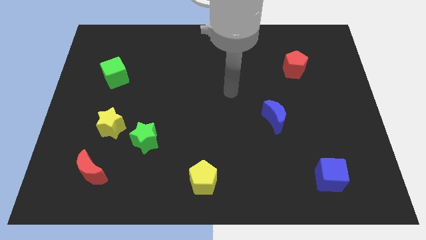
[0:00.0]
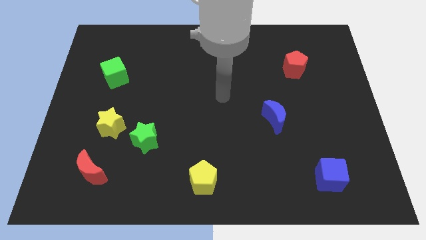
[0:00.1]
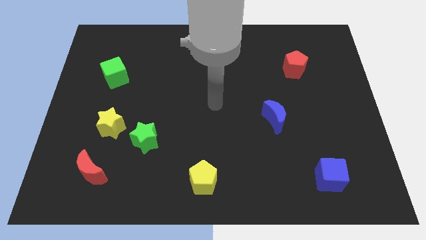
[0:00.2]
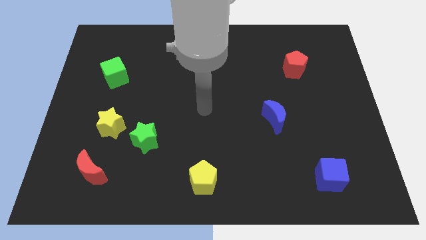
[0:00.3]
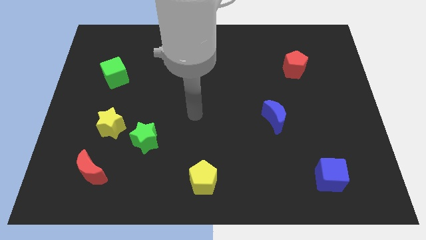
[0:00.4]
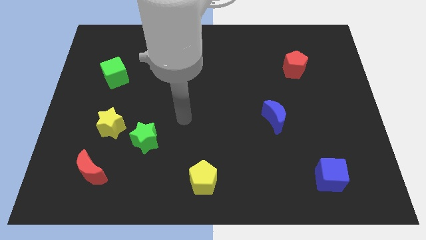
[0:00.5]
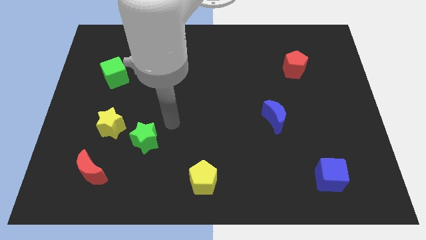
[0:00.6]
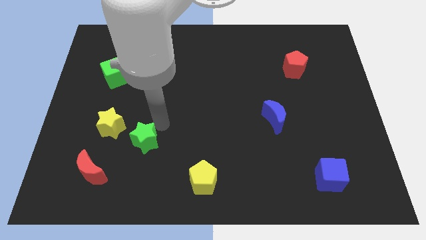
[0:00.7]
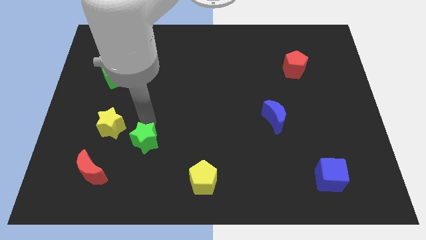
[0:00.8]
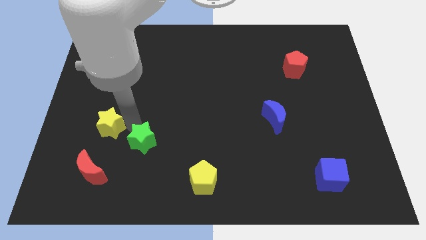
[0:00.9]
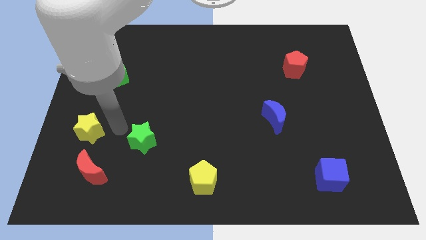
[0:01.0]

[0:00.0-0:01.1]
move the green star away from the yellow star

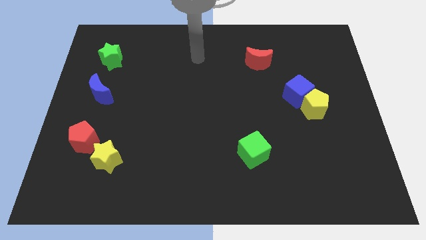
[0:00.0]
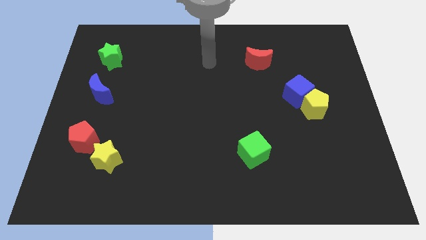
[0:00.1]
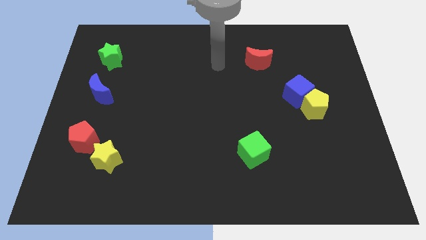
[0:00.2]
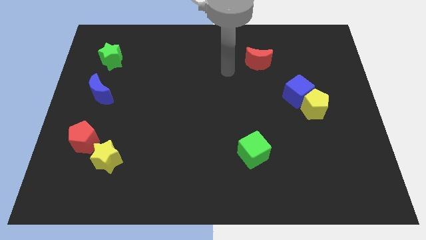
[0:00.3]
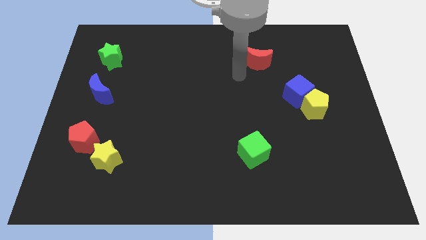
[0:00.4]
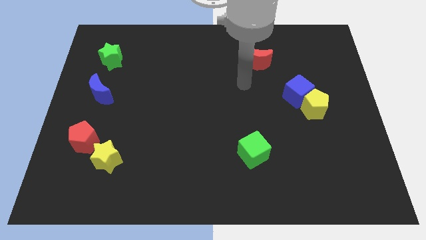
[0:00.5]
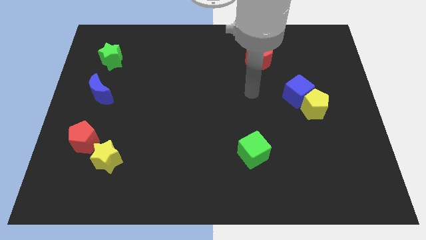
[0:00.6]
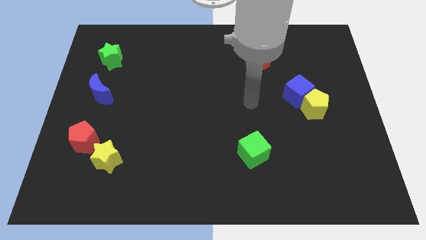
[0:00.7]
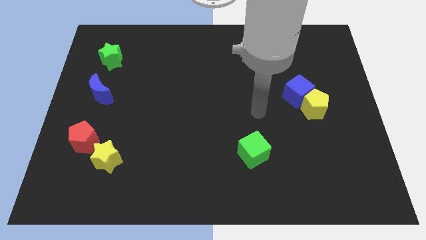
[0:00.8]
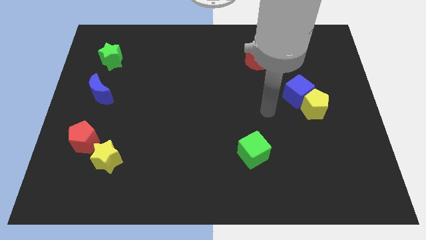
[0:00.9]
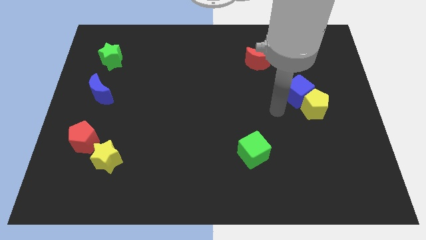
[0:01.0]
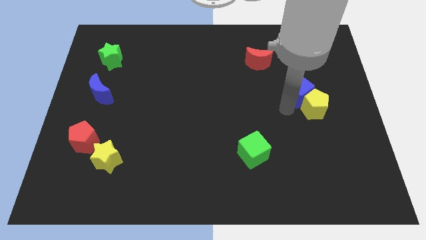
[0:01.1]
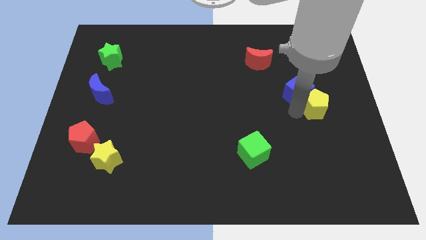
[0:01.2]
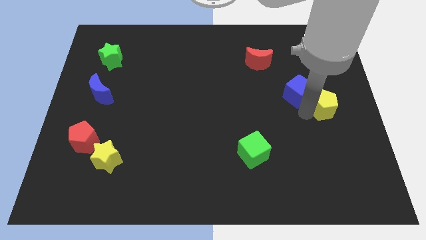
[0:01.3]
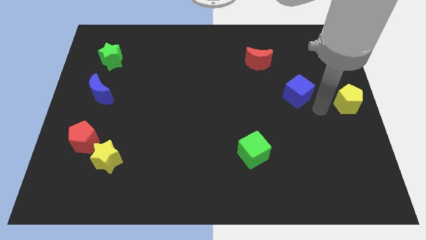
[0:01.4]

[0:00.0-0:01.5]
separate the blue cube from the yellow pentagon

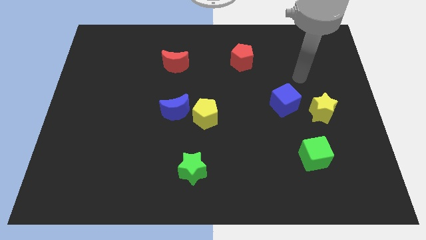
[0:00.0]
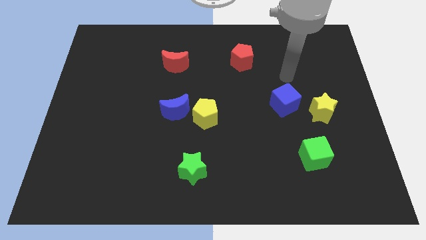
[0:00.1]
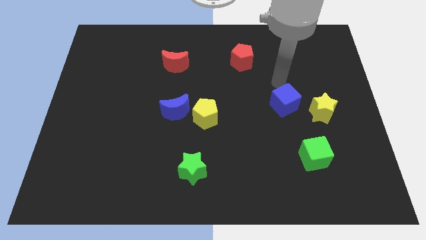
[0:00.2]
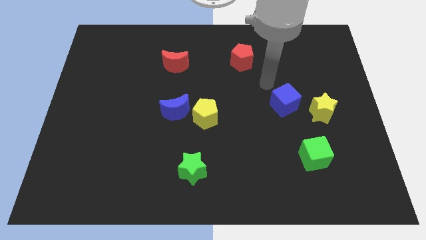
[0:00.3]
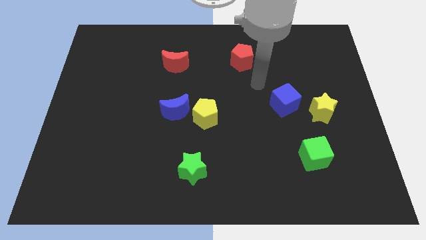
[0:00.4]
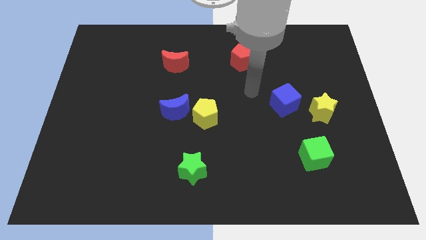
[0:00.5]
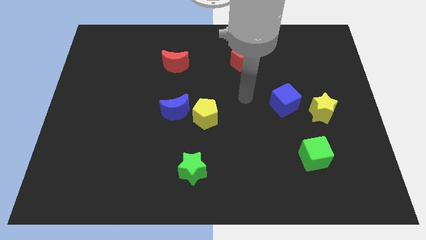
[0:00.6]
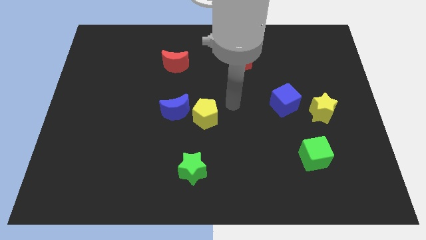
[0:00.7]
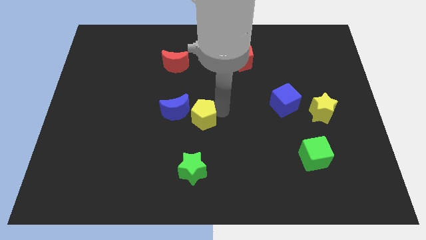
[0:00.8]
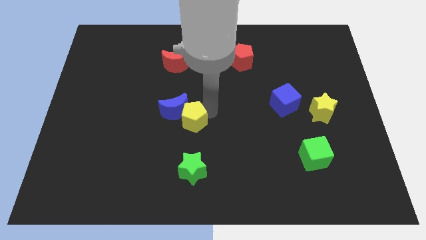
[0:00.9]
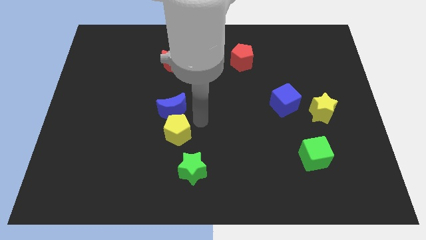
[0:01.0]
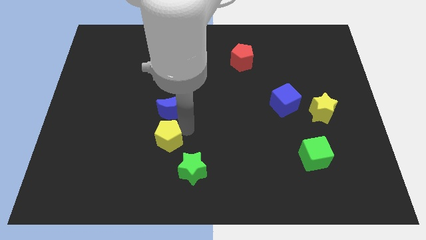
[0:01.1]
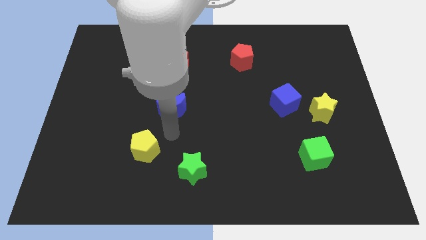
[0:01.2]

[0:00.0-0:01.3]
move the blue moon away from the yellow pentagon

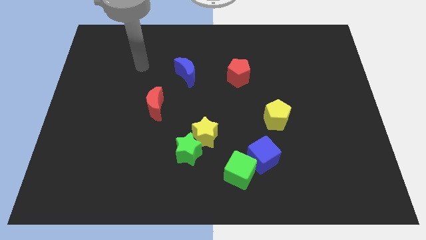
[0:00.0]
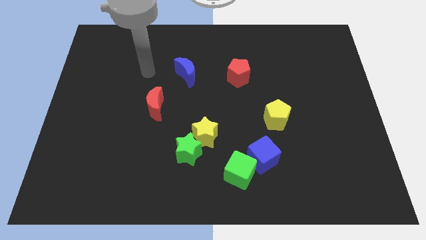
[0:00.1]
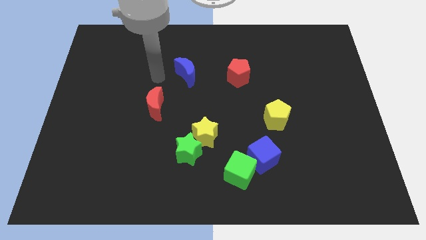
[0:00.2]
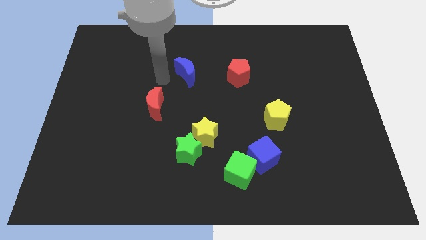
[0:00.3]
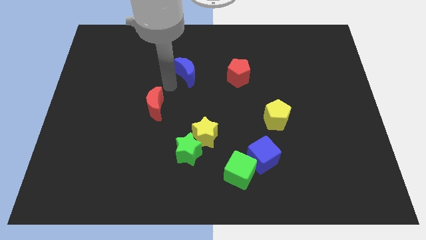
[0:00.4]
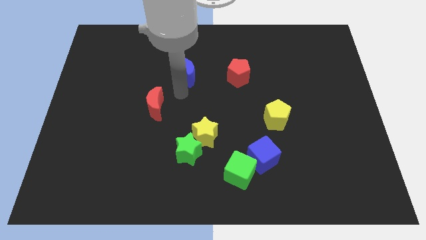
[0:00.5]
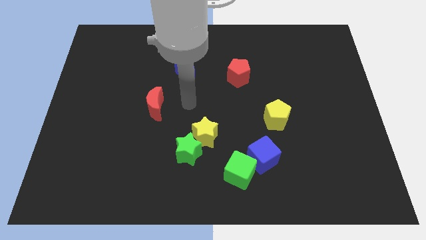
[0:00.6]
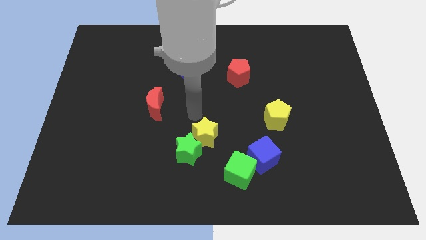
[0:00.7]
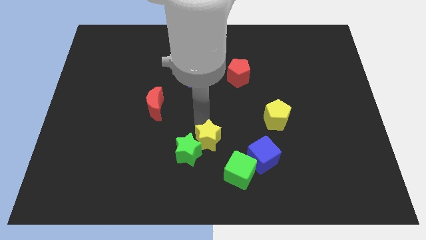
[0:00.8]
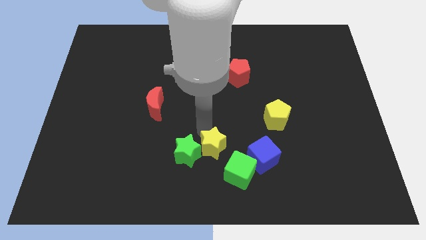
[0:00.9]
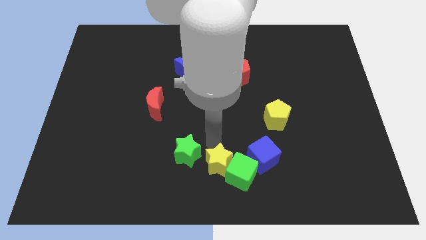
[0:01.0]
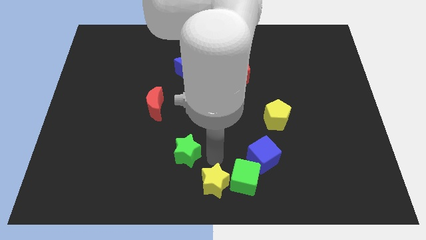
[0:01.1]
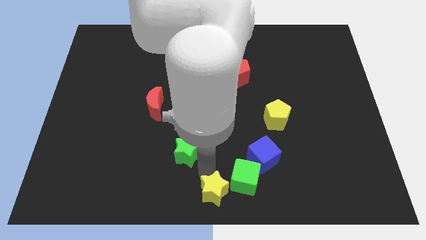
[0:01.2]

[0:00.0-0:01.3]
separate the green star from the yellow star

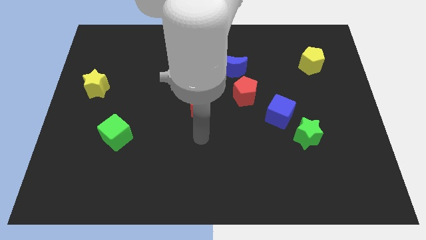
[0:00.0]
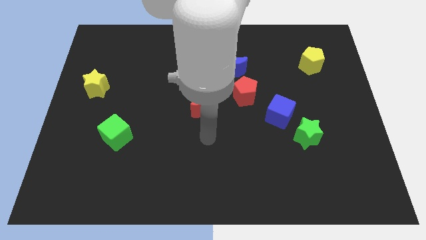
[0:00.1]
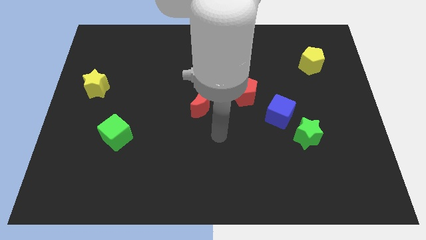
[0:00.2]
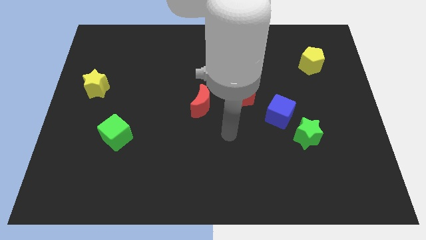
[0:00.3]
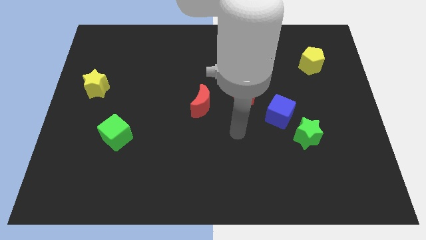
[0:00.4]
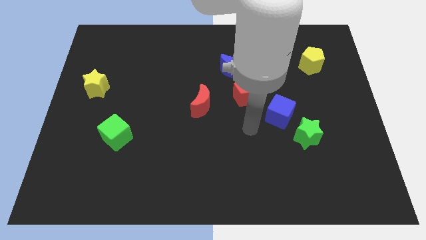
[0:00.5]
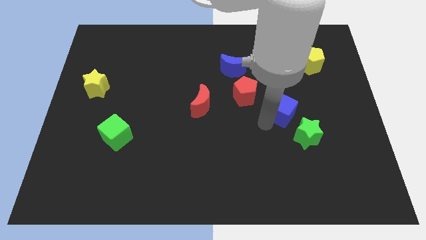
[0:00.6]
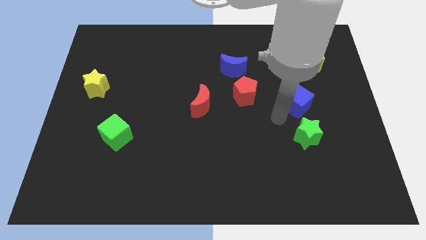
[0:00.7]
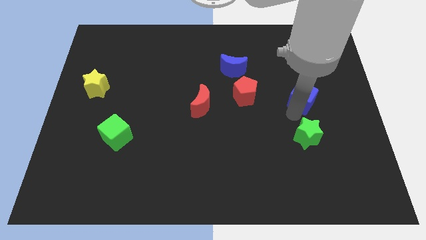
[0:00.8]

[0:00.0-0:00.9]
pull the green star apart from the blue cube

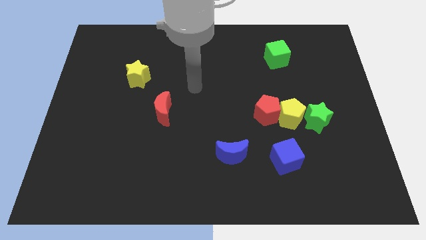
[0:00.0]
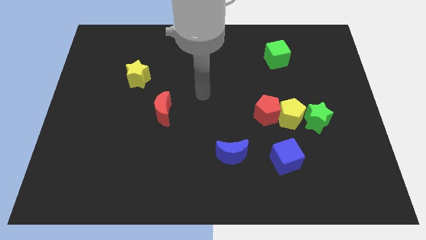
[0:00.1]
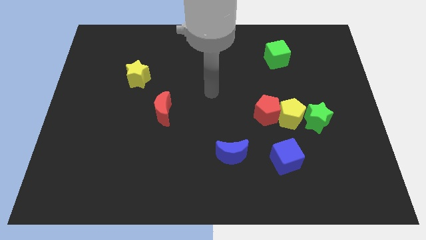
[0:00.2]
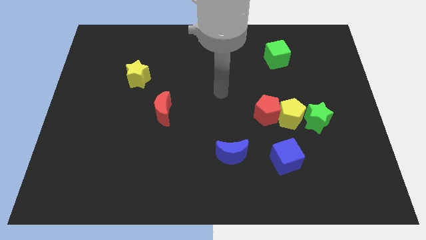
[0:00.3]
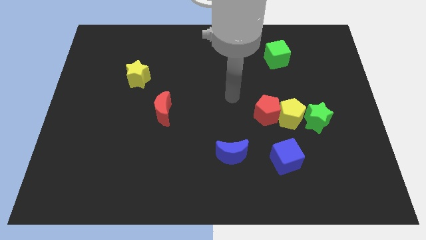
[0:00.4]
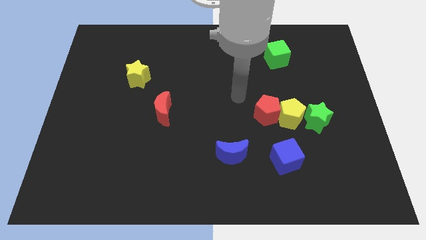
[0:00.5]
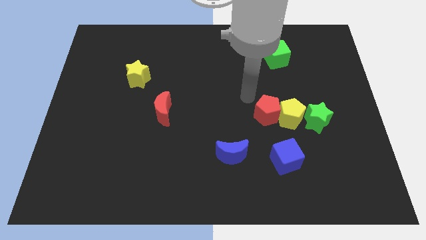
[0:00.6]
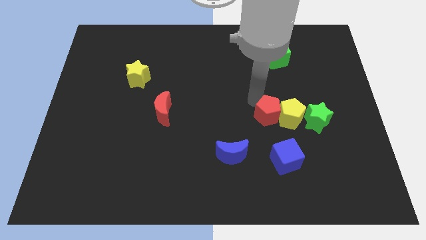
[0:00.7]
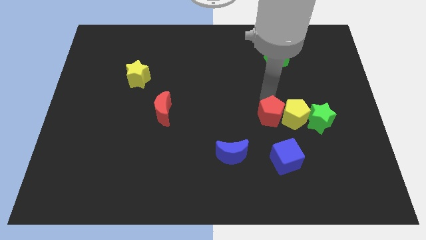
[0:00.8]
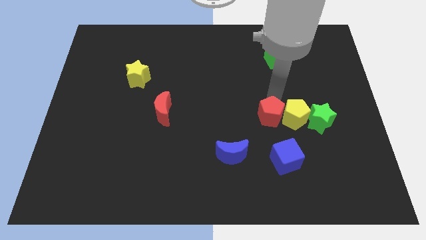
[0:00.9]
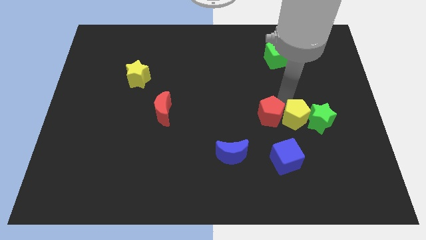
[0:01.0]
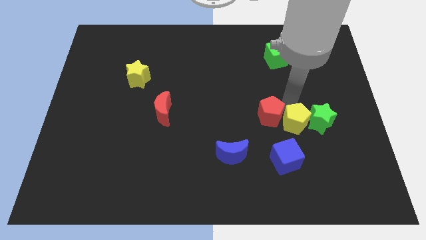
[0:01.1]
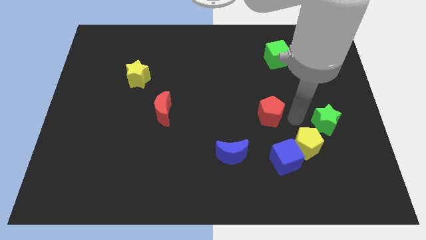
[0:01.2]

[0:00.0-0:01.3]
move the red pentagon away from the yellow pentagon

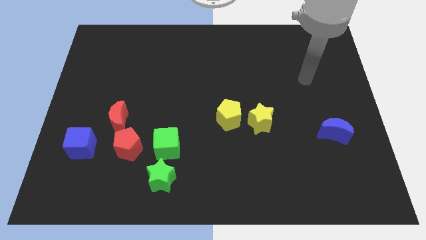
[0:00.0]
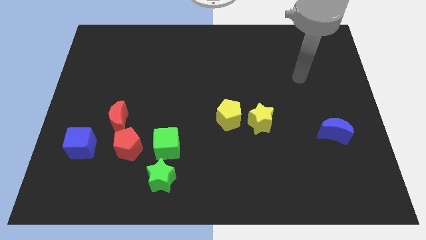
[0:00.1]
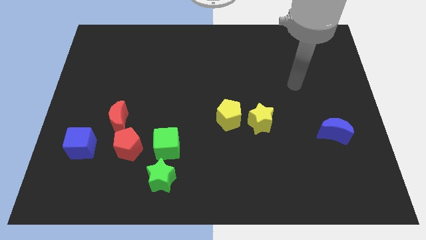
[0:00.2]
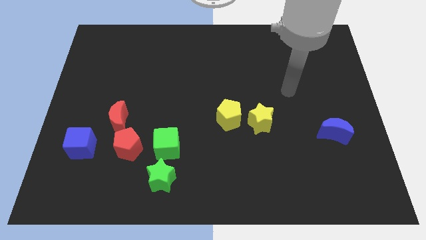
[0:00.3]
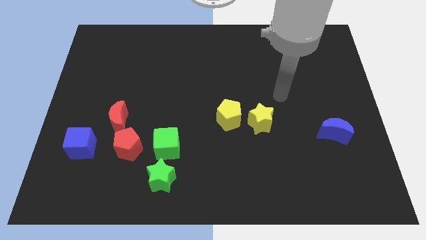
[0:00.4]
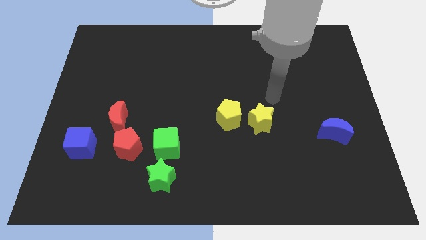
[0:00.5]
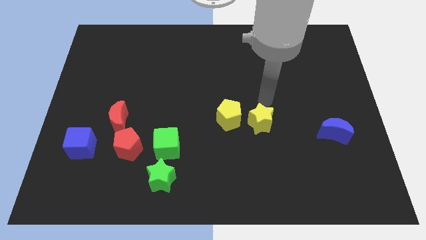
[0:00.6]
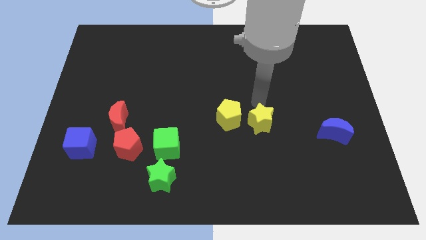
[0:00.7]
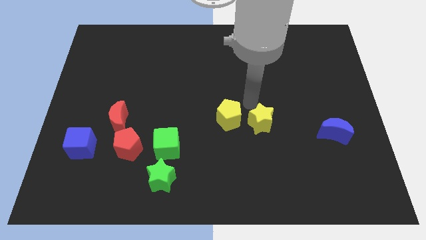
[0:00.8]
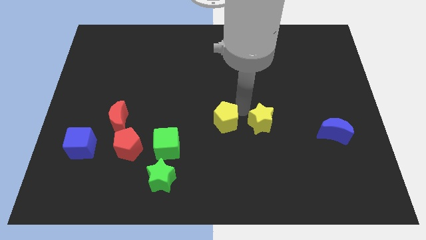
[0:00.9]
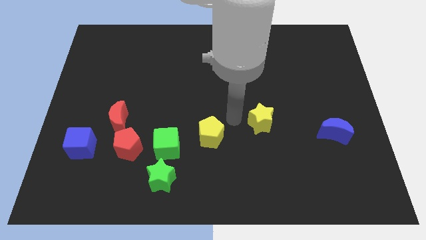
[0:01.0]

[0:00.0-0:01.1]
separate the yellow star from the yellow pentagon

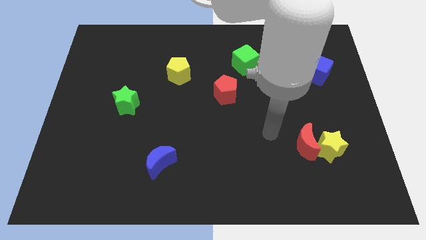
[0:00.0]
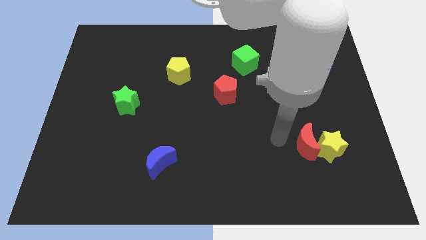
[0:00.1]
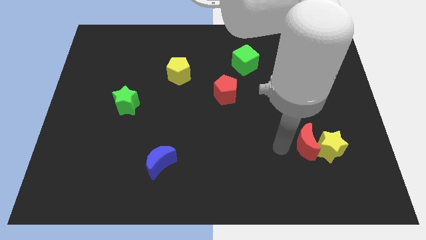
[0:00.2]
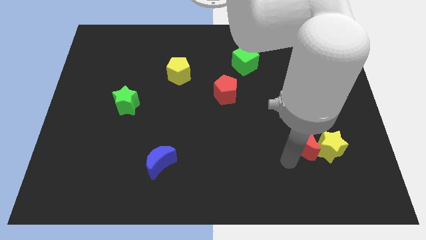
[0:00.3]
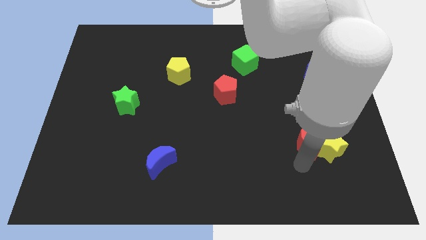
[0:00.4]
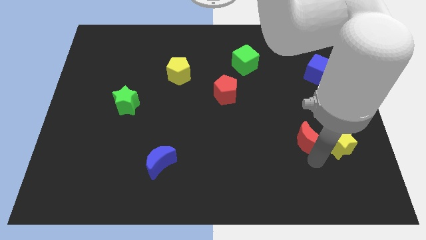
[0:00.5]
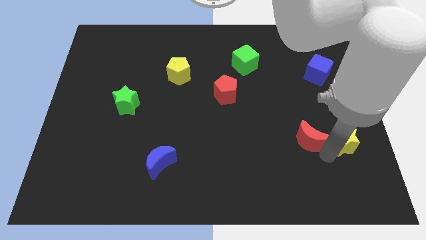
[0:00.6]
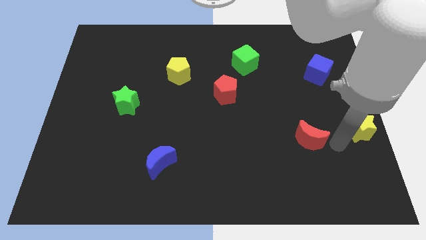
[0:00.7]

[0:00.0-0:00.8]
pull the red moon apart from the yellow star

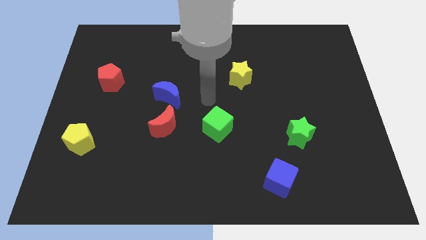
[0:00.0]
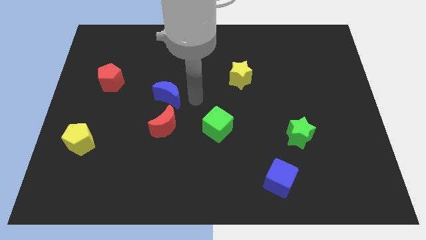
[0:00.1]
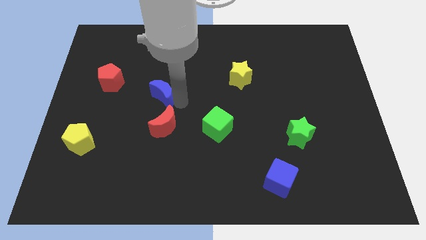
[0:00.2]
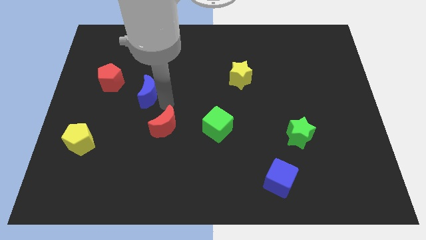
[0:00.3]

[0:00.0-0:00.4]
separate the red moon from the blue moon
